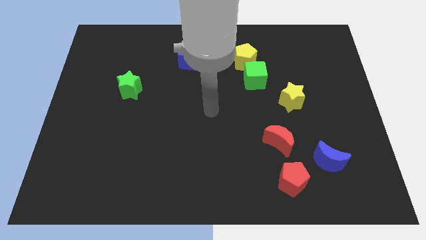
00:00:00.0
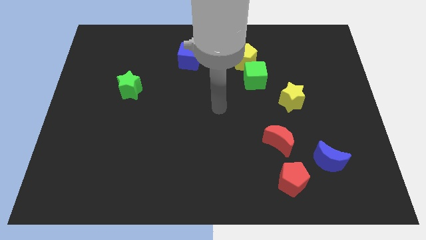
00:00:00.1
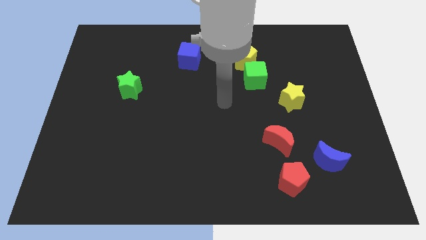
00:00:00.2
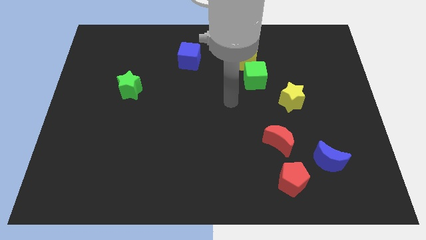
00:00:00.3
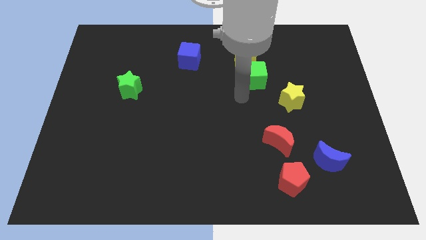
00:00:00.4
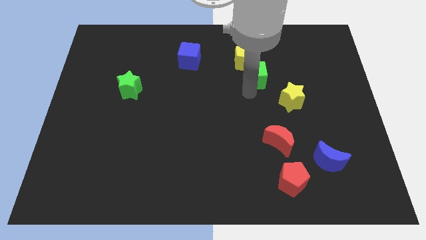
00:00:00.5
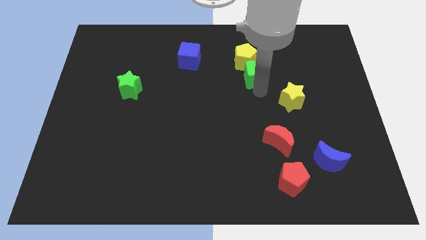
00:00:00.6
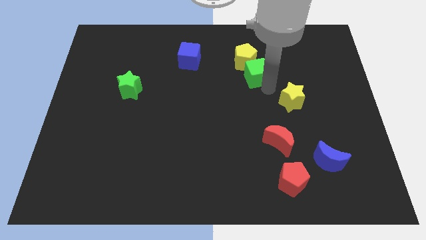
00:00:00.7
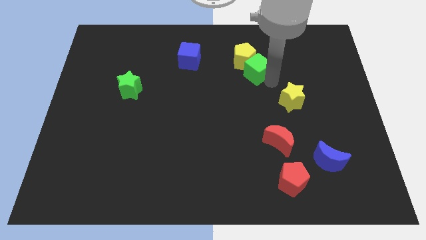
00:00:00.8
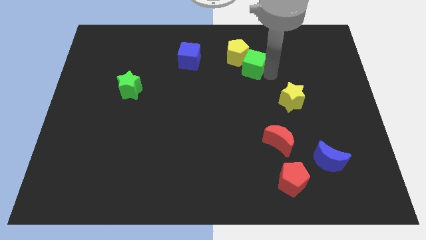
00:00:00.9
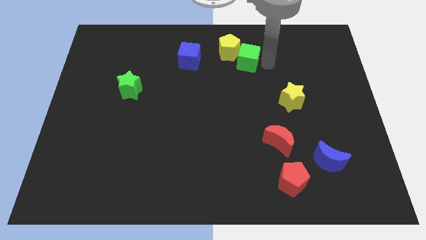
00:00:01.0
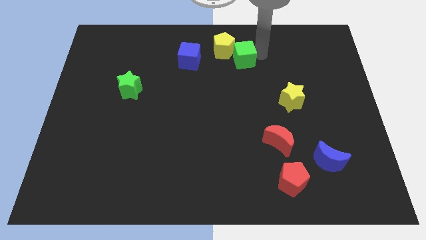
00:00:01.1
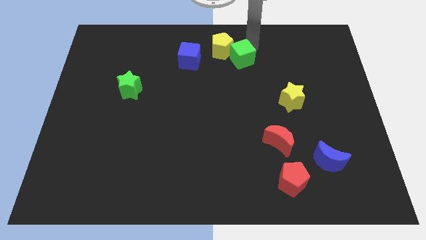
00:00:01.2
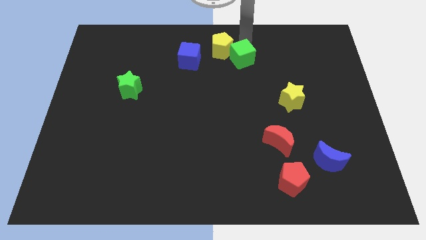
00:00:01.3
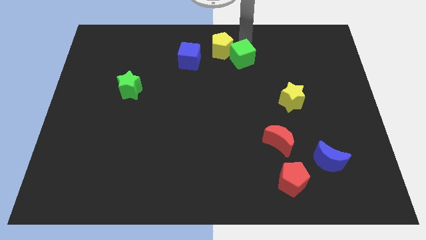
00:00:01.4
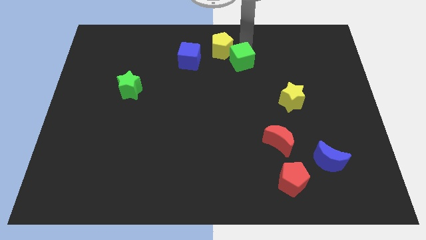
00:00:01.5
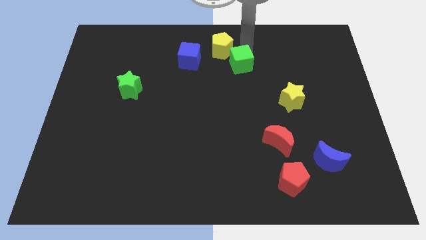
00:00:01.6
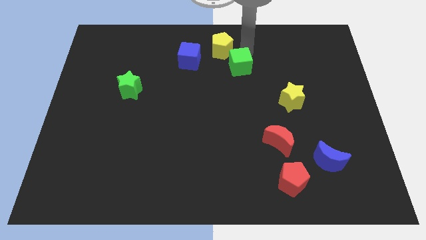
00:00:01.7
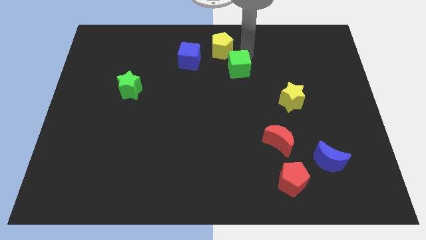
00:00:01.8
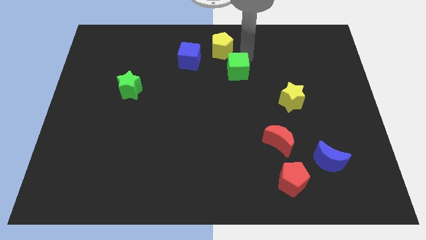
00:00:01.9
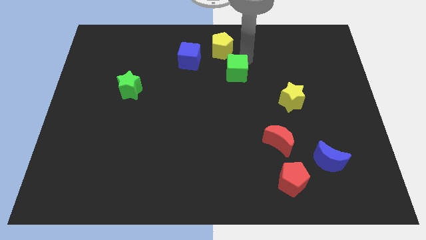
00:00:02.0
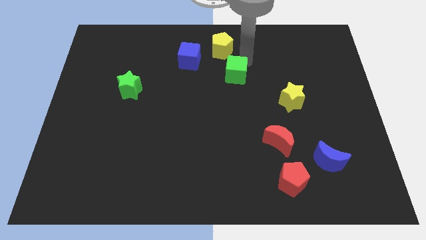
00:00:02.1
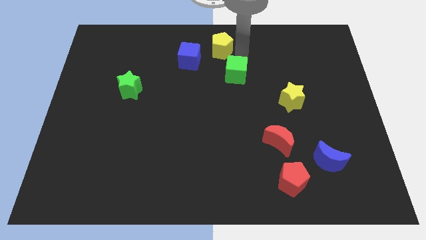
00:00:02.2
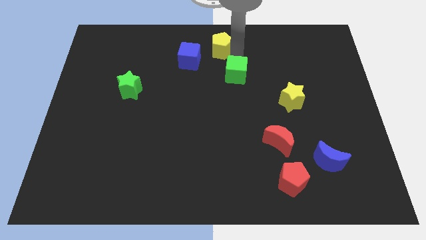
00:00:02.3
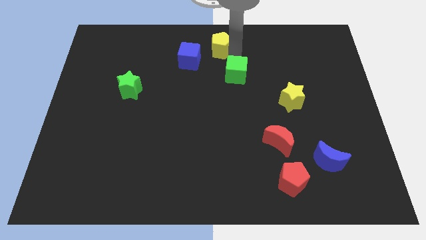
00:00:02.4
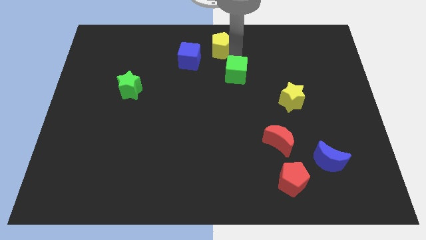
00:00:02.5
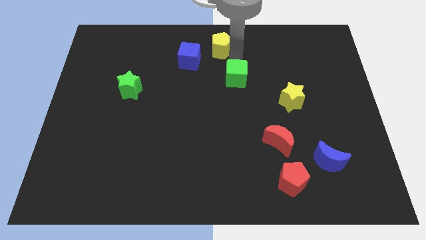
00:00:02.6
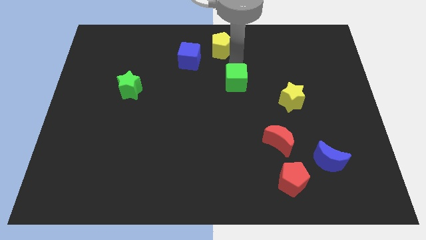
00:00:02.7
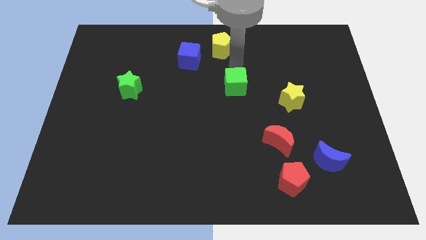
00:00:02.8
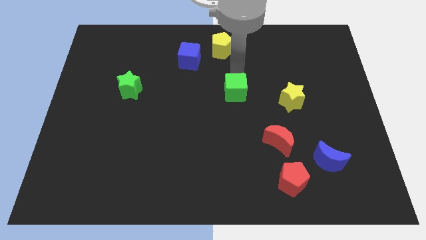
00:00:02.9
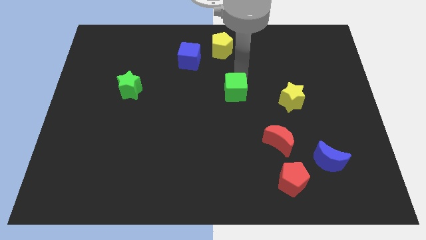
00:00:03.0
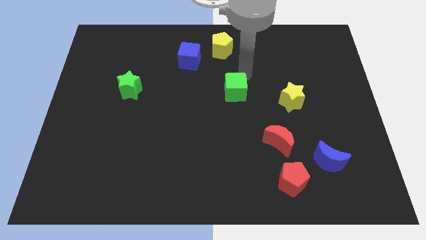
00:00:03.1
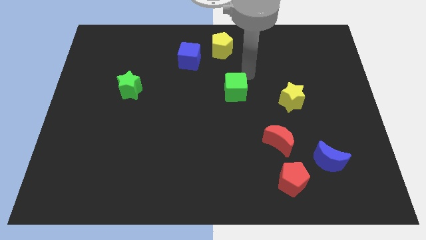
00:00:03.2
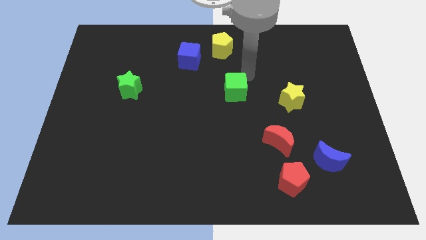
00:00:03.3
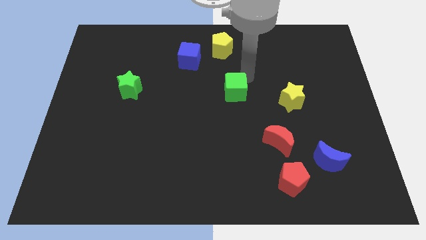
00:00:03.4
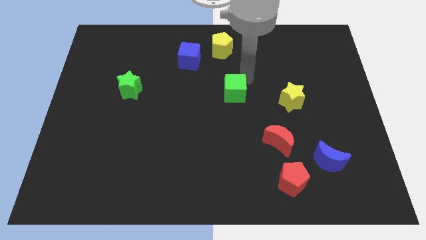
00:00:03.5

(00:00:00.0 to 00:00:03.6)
move the green cube somewhat down and to the left

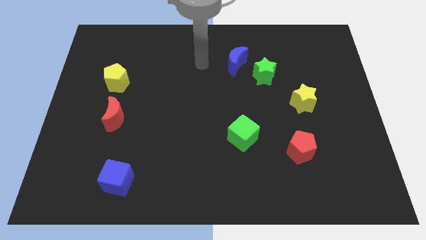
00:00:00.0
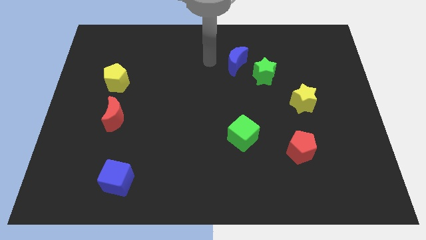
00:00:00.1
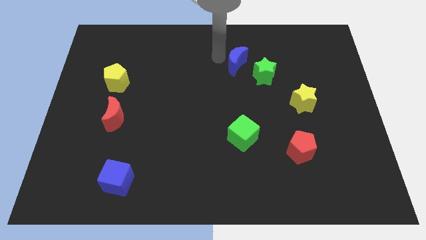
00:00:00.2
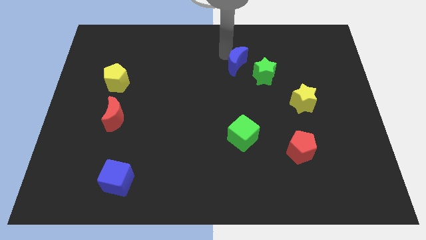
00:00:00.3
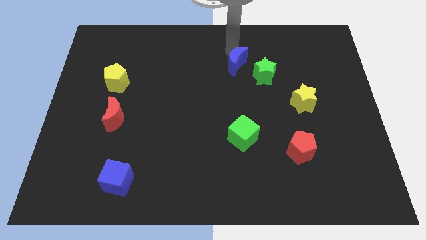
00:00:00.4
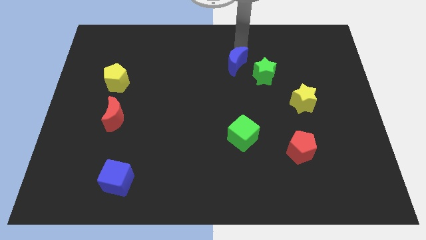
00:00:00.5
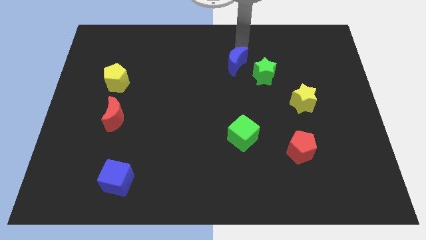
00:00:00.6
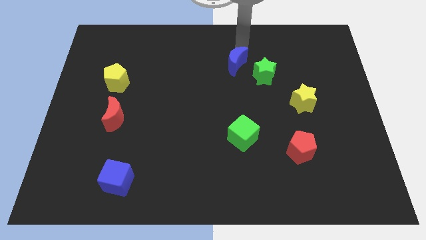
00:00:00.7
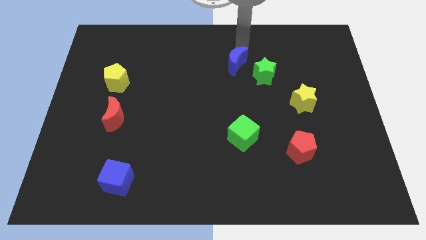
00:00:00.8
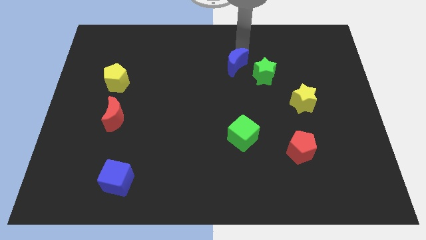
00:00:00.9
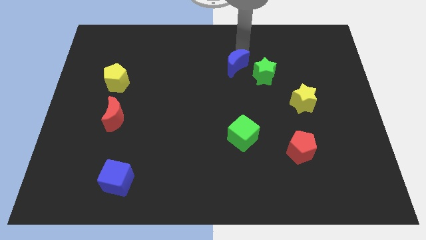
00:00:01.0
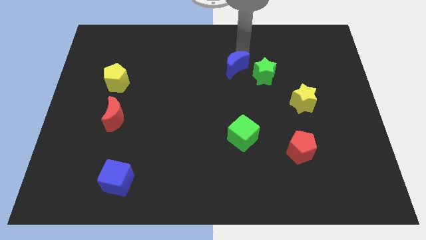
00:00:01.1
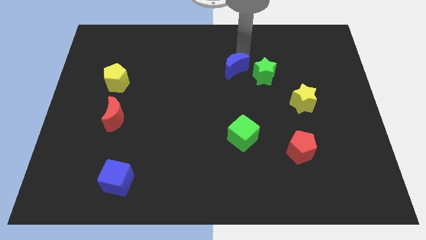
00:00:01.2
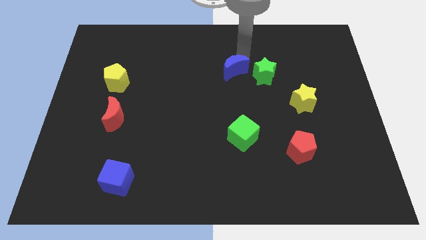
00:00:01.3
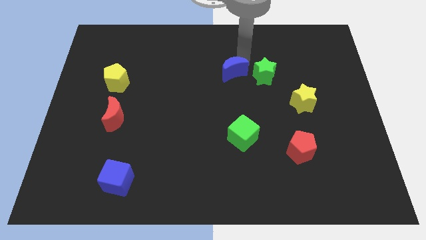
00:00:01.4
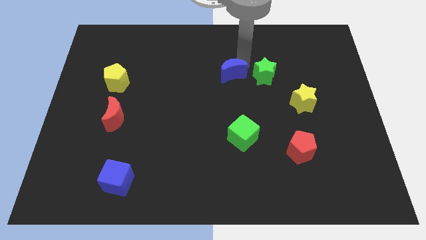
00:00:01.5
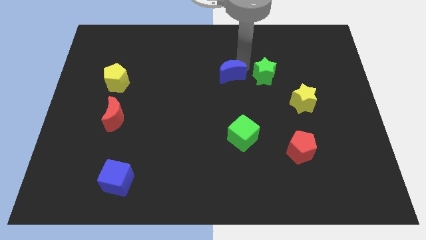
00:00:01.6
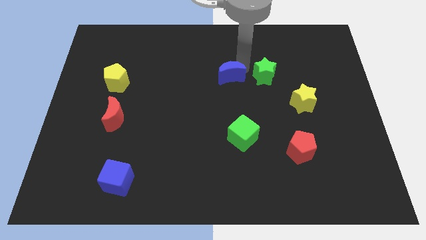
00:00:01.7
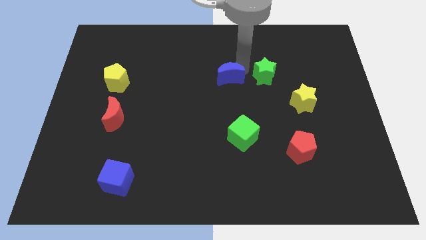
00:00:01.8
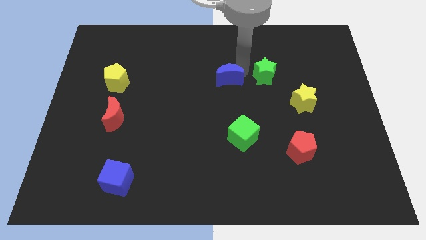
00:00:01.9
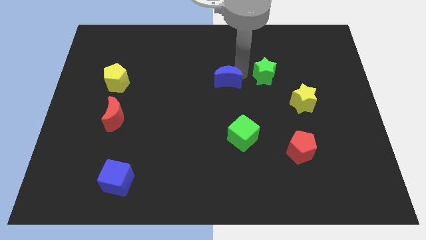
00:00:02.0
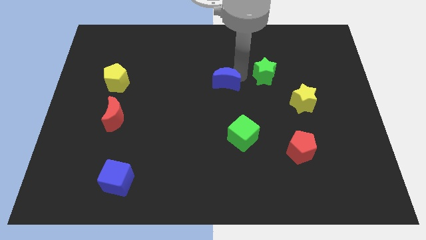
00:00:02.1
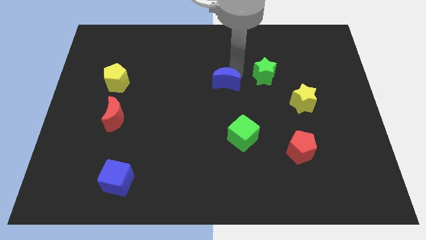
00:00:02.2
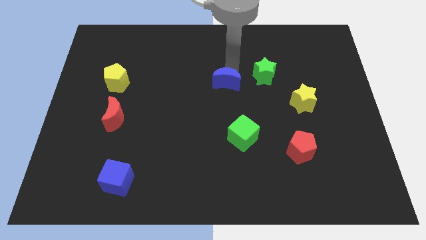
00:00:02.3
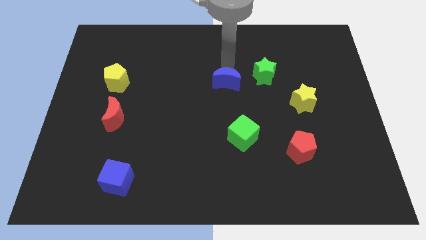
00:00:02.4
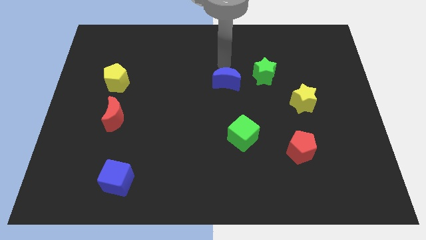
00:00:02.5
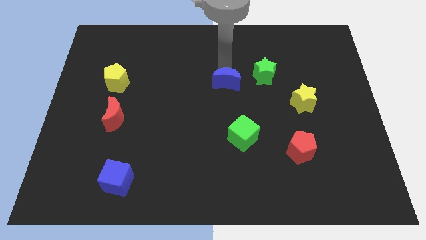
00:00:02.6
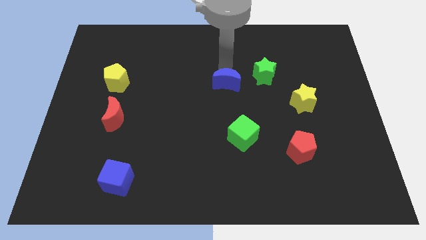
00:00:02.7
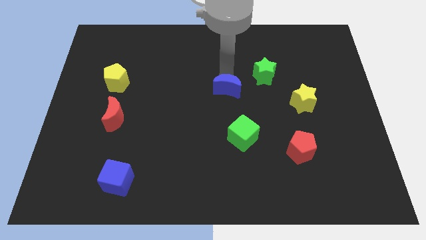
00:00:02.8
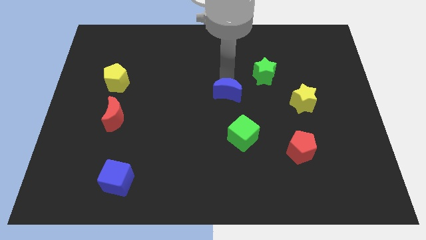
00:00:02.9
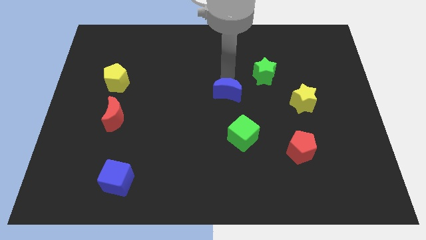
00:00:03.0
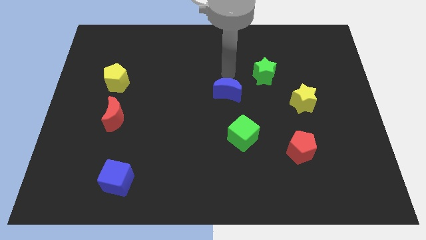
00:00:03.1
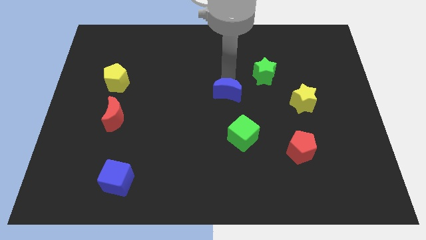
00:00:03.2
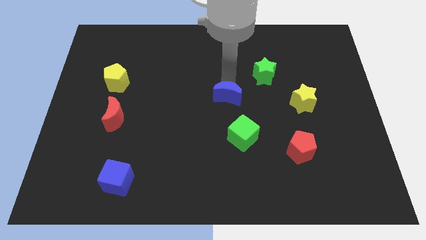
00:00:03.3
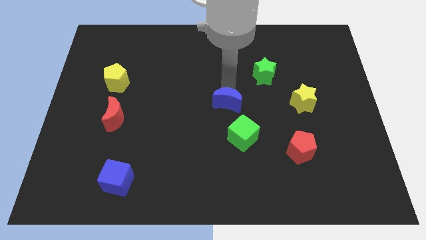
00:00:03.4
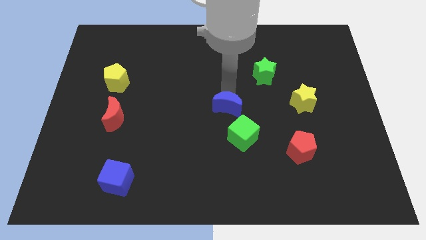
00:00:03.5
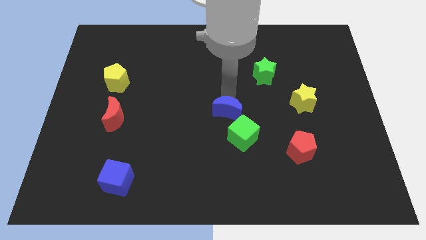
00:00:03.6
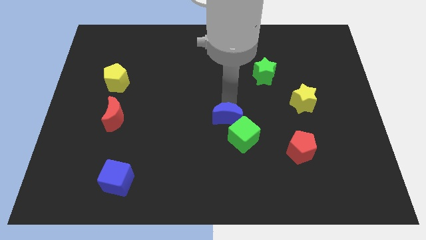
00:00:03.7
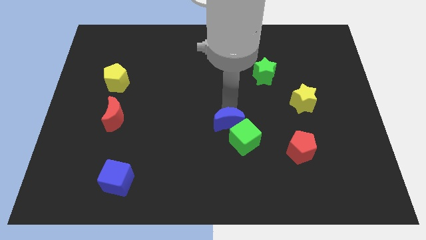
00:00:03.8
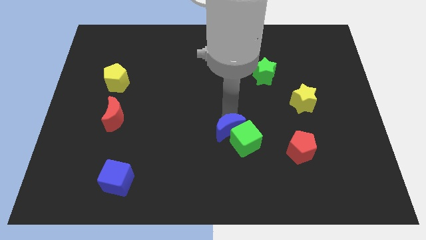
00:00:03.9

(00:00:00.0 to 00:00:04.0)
move the blue moon downwards

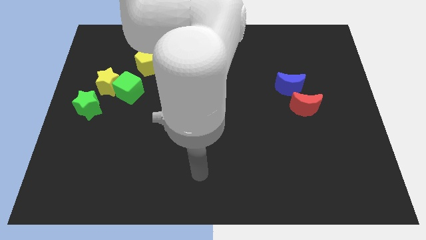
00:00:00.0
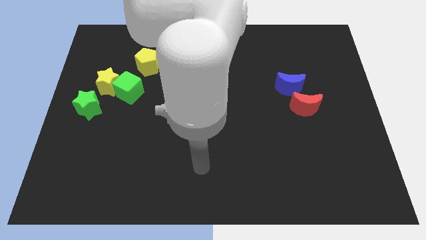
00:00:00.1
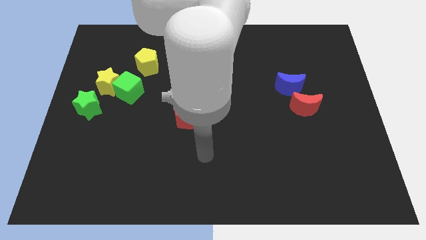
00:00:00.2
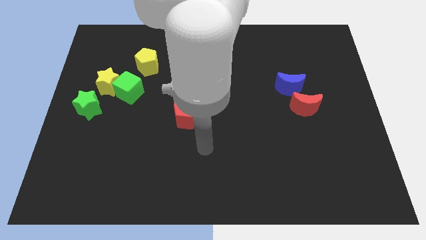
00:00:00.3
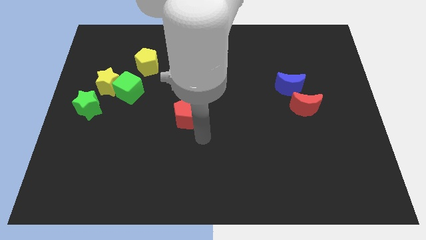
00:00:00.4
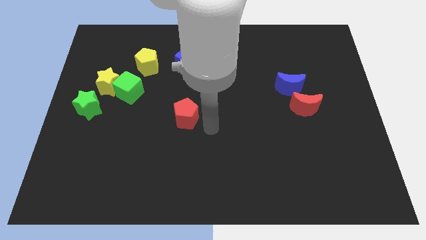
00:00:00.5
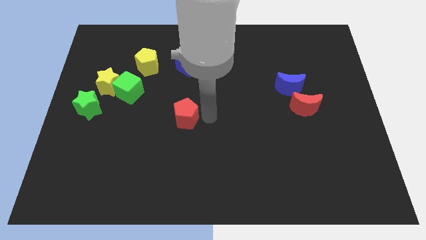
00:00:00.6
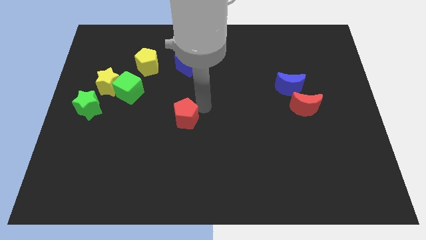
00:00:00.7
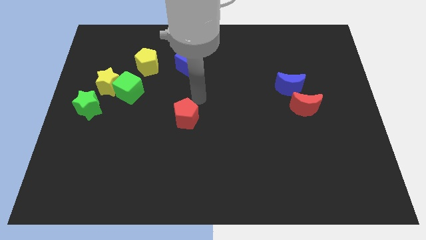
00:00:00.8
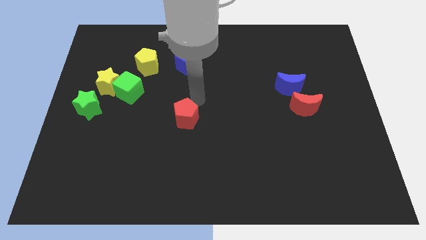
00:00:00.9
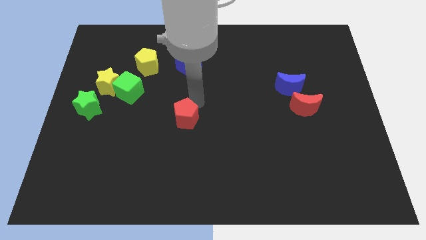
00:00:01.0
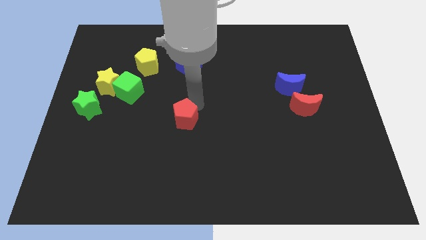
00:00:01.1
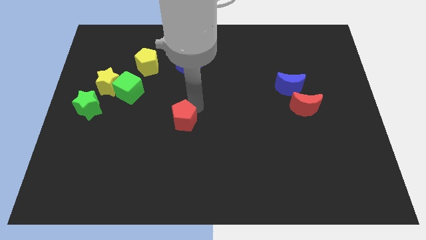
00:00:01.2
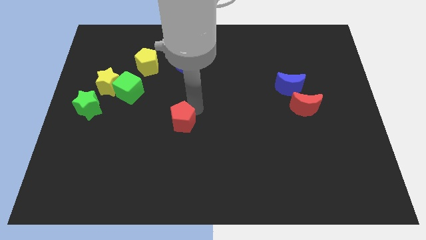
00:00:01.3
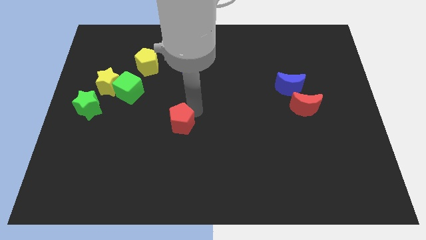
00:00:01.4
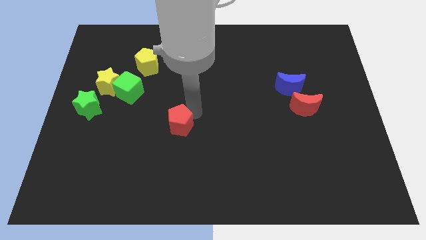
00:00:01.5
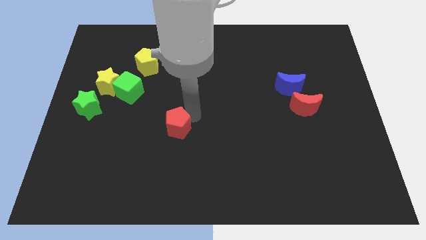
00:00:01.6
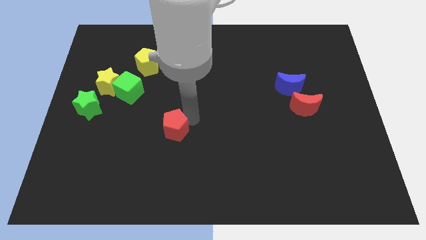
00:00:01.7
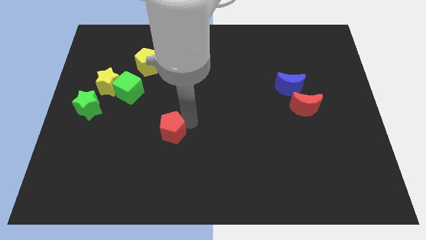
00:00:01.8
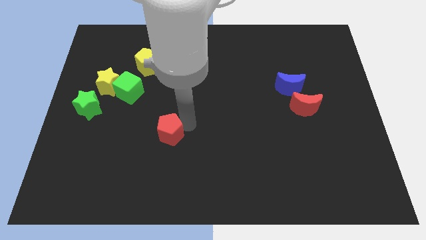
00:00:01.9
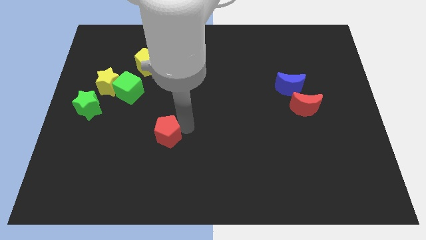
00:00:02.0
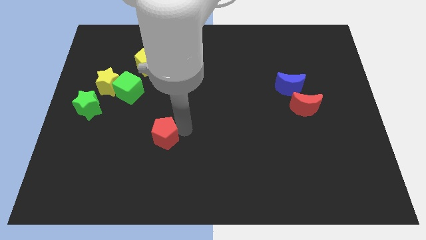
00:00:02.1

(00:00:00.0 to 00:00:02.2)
move the red pentagon a little down and to the left
